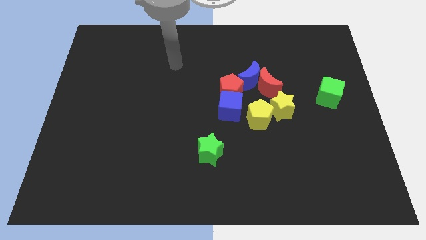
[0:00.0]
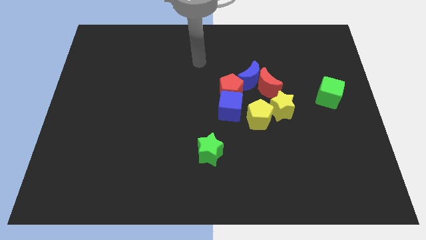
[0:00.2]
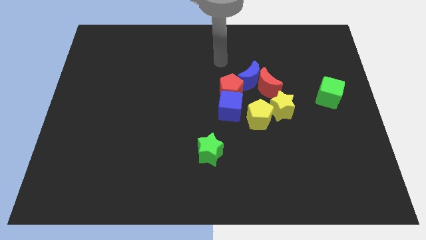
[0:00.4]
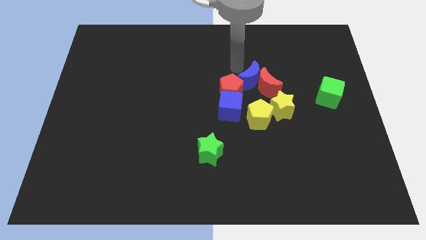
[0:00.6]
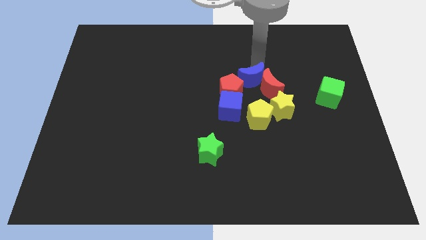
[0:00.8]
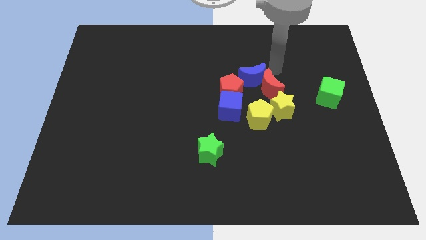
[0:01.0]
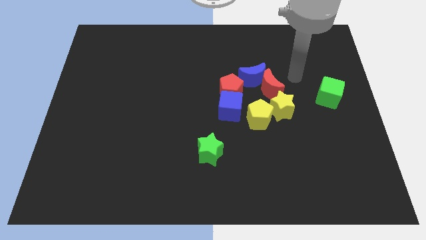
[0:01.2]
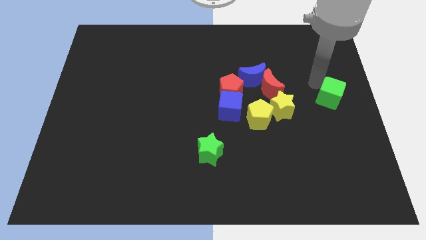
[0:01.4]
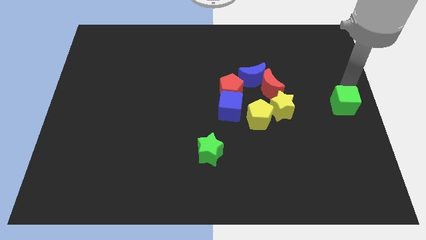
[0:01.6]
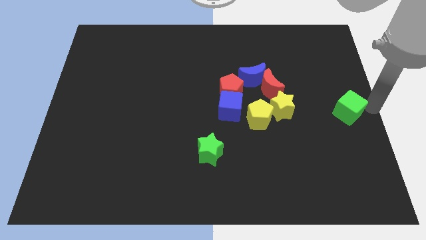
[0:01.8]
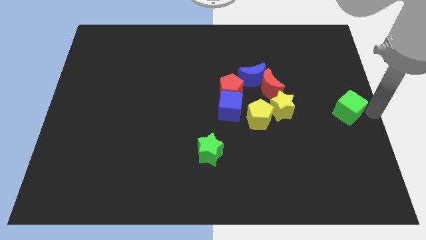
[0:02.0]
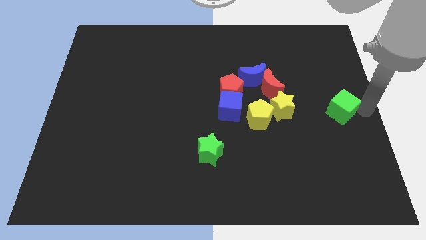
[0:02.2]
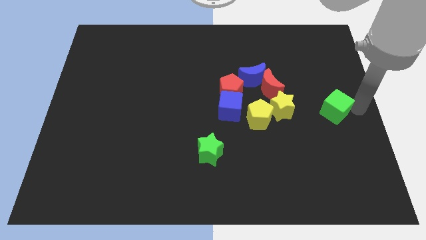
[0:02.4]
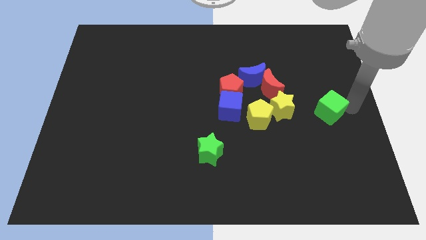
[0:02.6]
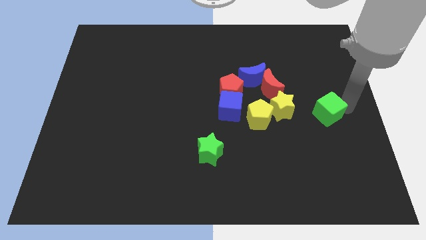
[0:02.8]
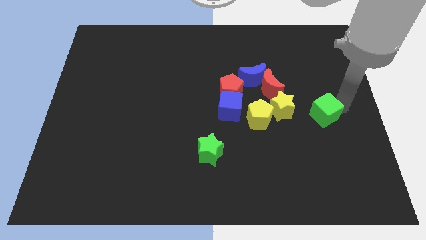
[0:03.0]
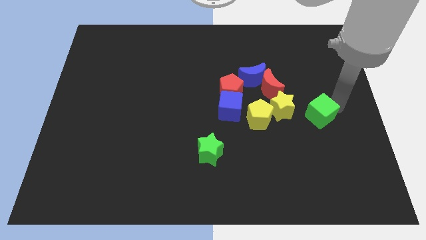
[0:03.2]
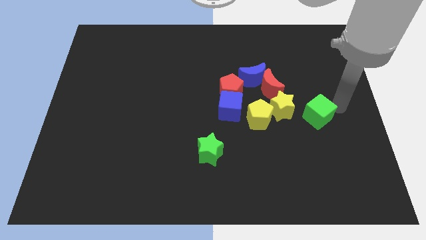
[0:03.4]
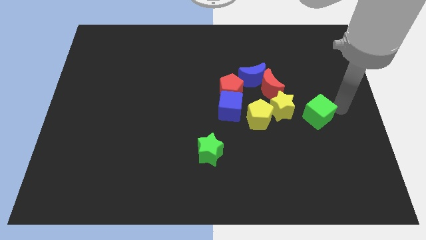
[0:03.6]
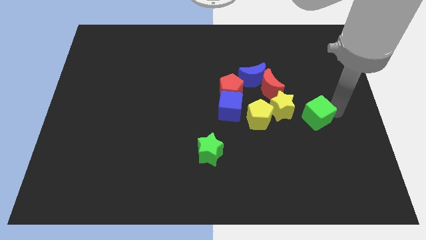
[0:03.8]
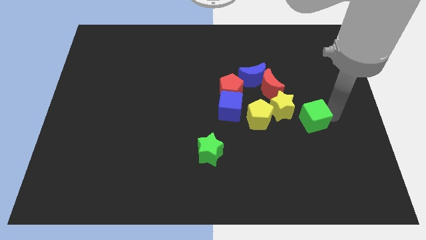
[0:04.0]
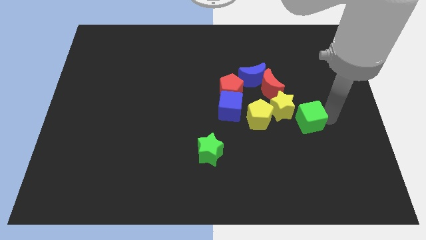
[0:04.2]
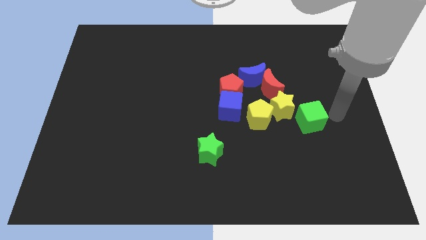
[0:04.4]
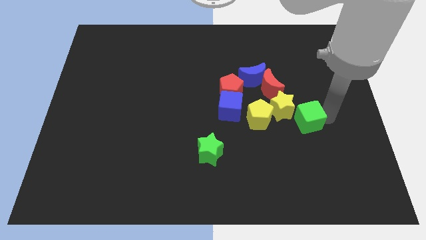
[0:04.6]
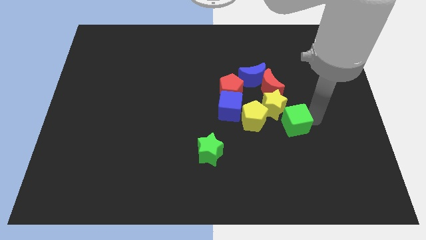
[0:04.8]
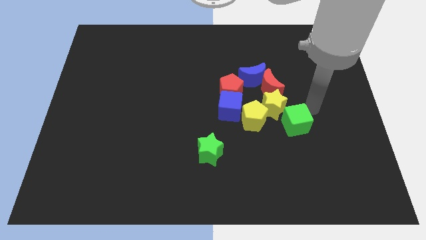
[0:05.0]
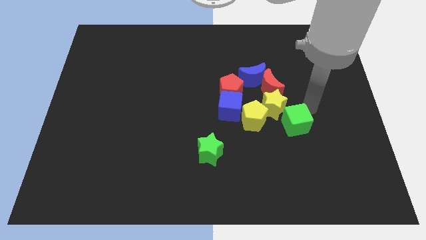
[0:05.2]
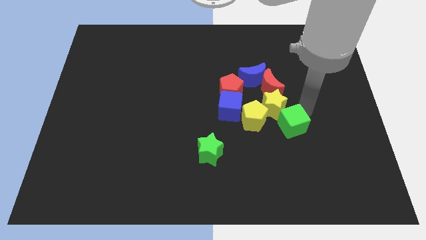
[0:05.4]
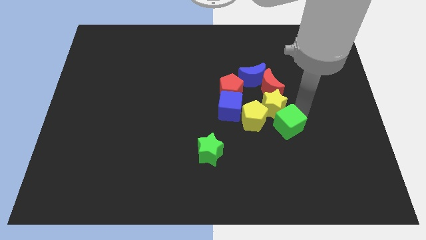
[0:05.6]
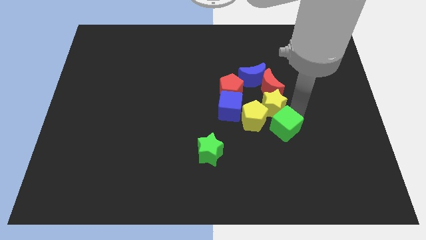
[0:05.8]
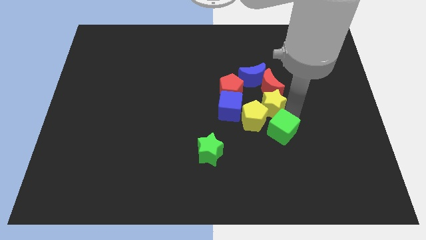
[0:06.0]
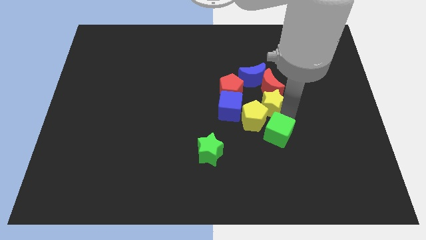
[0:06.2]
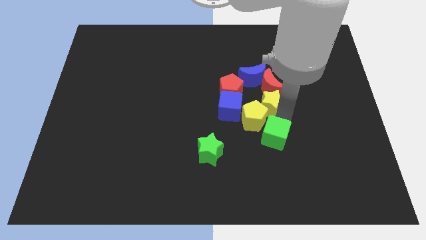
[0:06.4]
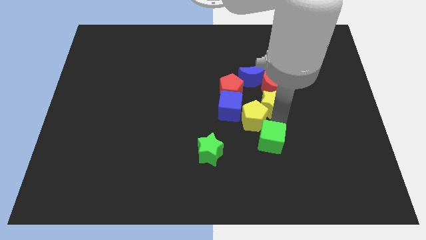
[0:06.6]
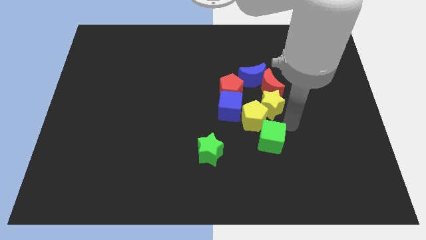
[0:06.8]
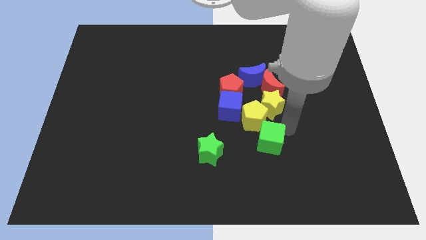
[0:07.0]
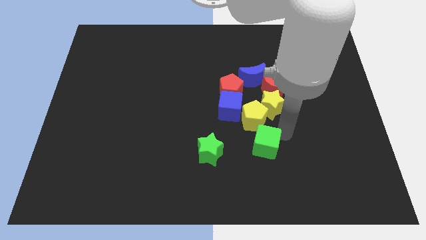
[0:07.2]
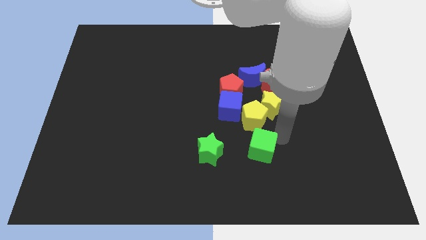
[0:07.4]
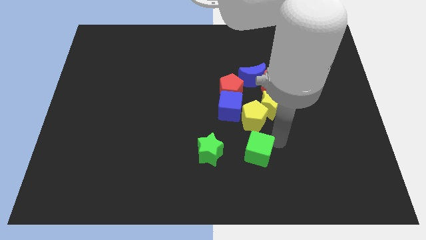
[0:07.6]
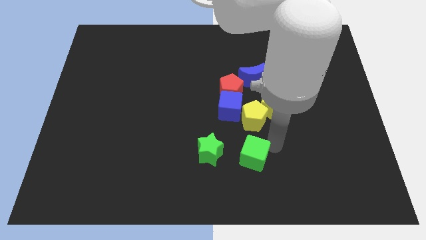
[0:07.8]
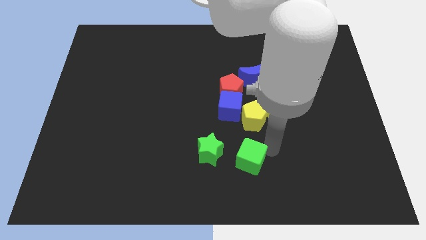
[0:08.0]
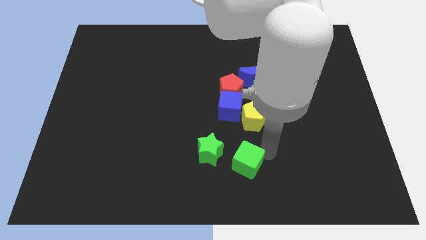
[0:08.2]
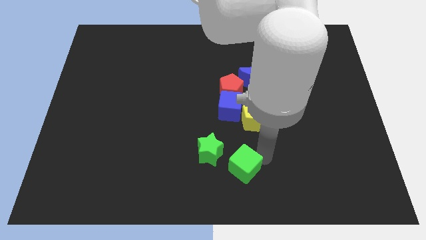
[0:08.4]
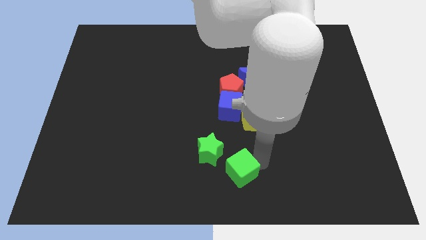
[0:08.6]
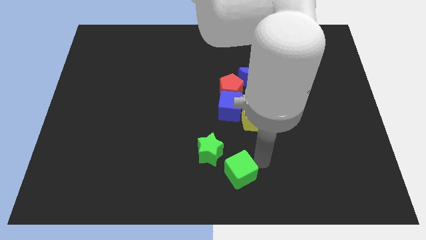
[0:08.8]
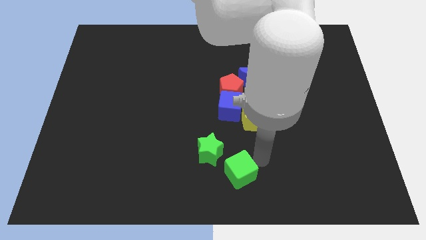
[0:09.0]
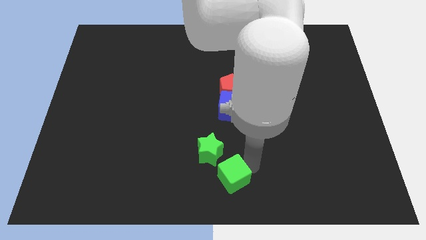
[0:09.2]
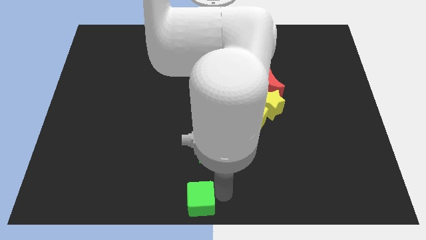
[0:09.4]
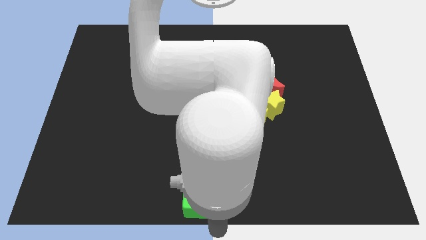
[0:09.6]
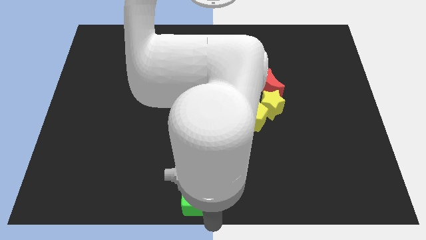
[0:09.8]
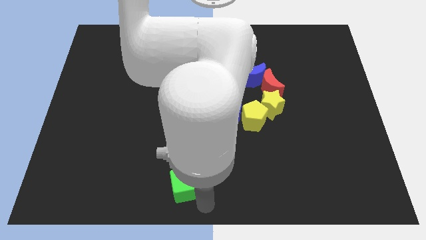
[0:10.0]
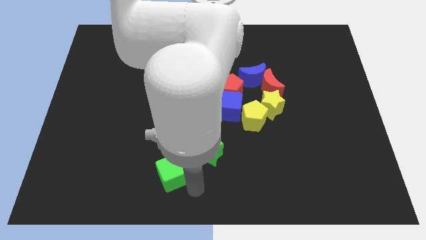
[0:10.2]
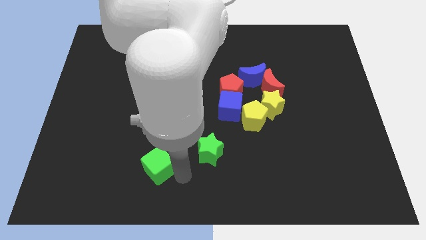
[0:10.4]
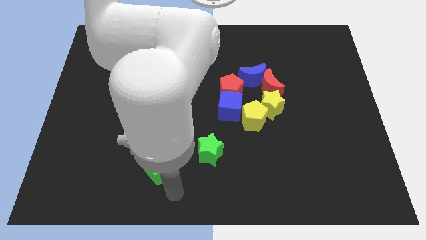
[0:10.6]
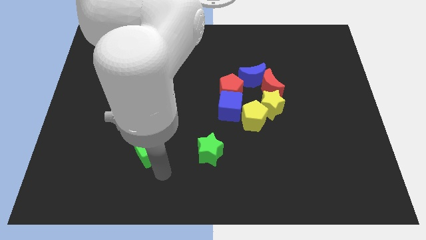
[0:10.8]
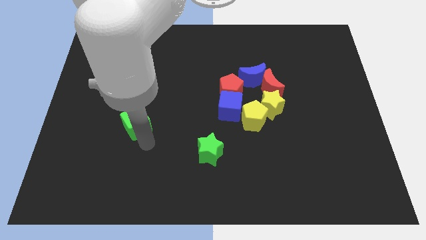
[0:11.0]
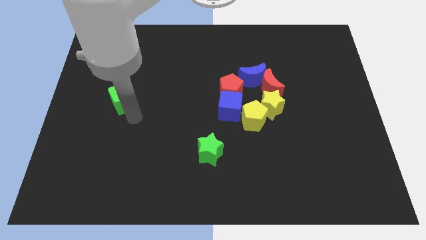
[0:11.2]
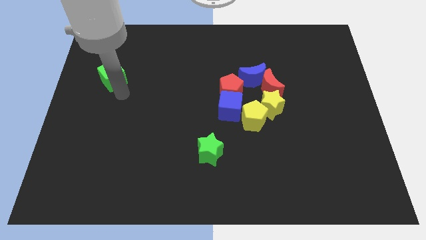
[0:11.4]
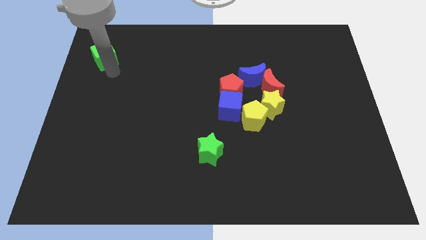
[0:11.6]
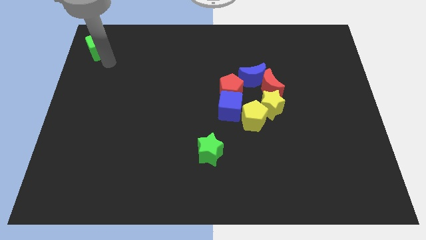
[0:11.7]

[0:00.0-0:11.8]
push the green cube to the top left
